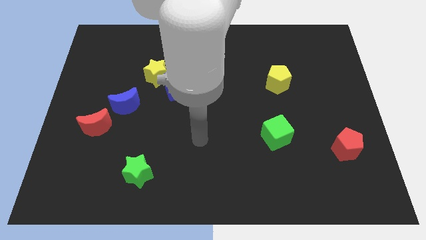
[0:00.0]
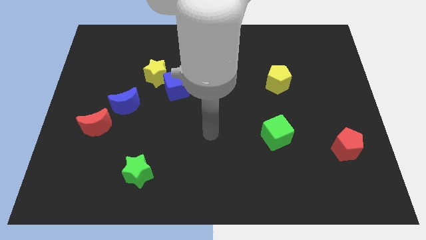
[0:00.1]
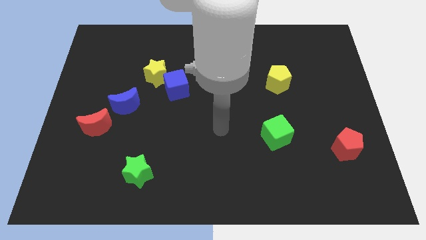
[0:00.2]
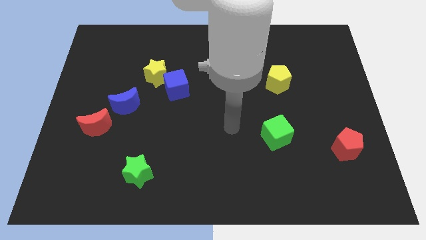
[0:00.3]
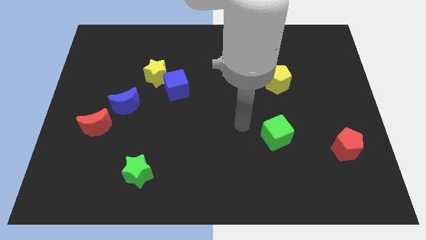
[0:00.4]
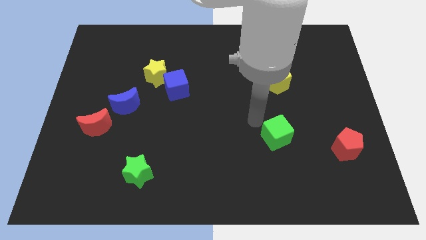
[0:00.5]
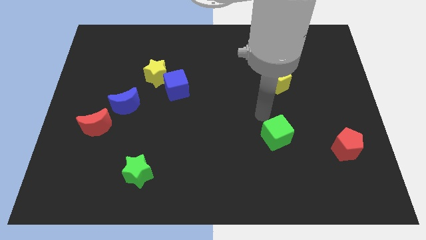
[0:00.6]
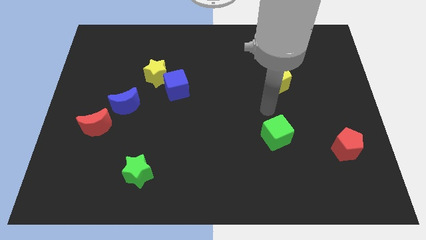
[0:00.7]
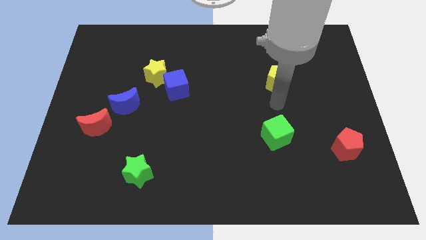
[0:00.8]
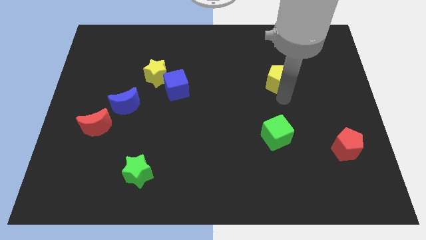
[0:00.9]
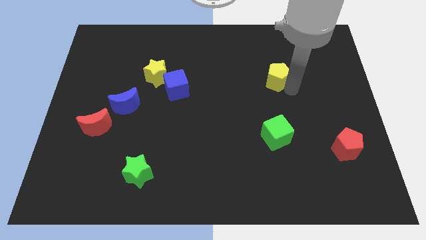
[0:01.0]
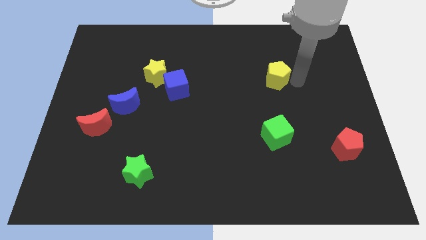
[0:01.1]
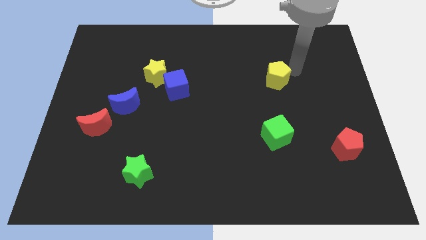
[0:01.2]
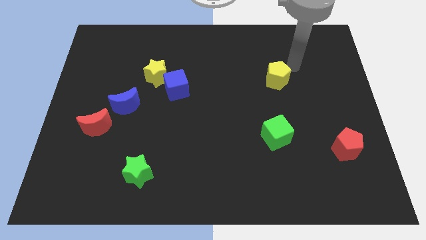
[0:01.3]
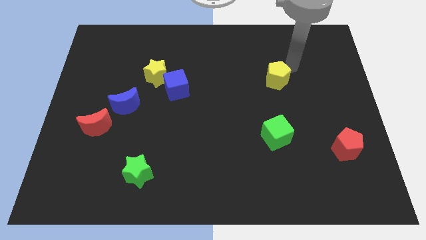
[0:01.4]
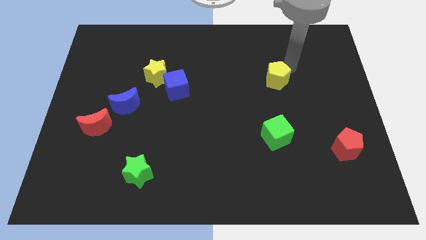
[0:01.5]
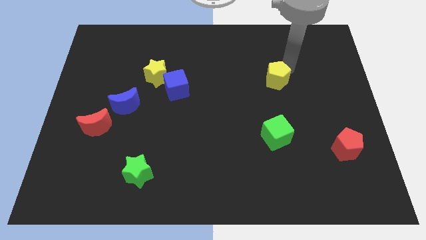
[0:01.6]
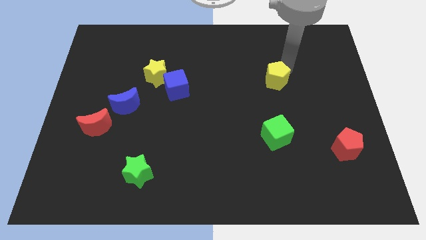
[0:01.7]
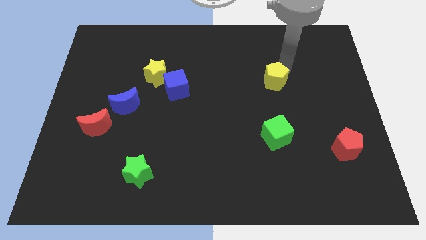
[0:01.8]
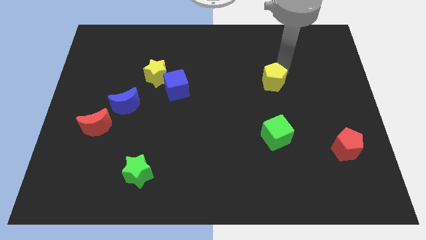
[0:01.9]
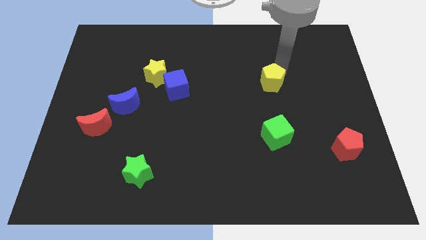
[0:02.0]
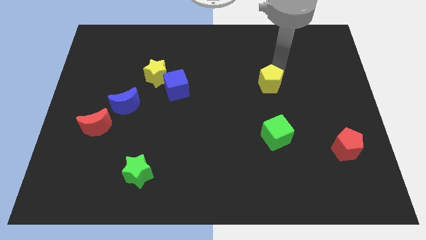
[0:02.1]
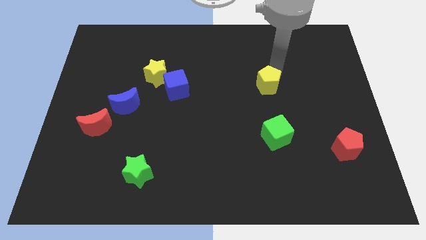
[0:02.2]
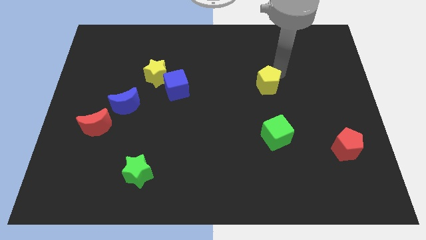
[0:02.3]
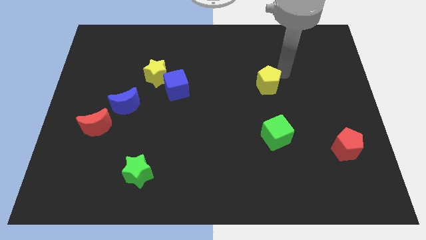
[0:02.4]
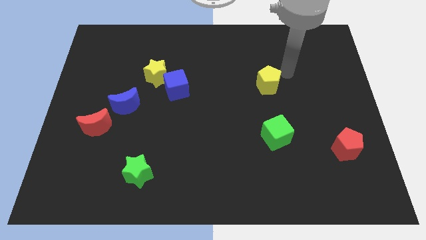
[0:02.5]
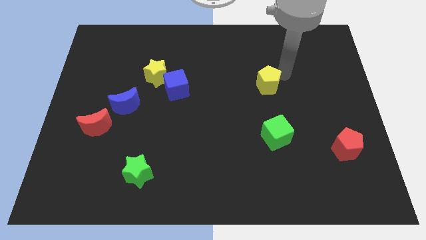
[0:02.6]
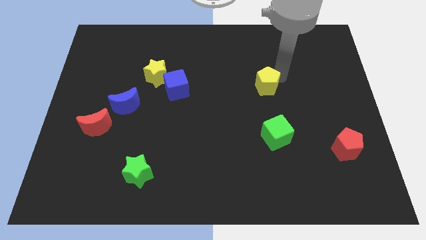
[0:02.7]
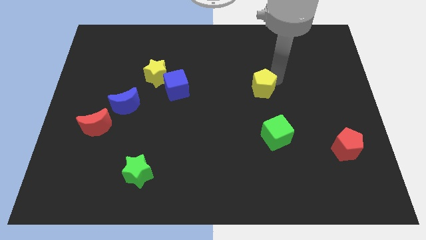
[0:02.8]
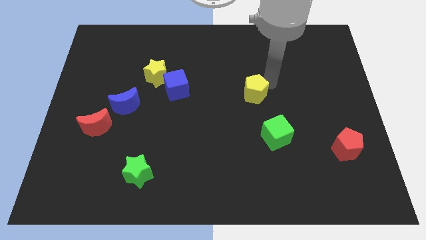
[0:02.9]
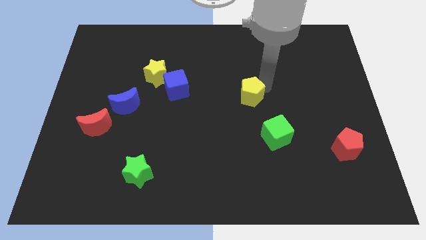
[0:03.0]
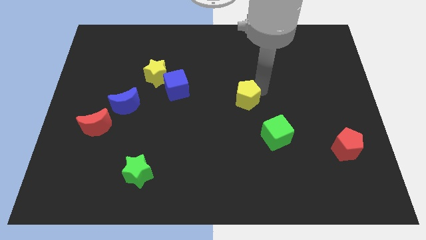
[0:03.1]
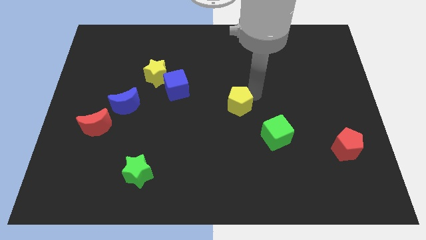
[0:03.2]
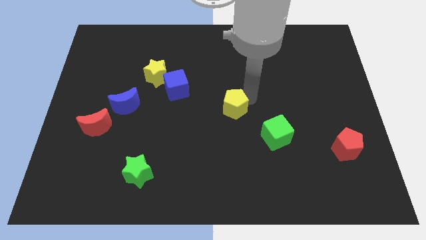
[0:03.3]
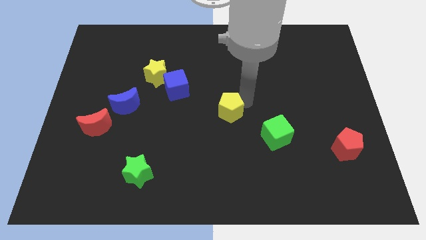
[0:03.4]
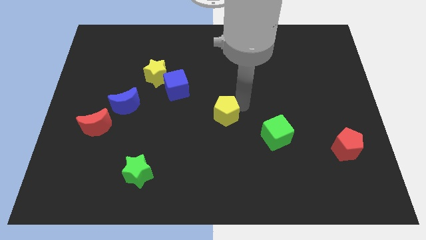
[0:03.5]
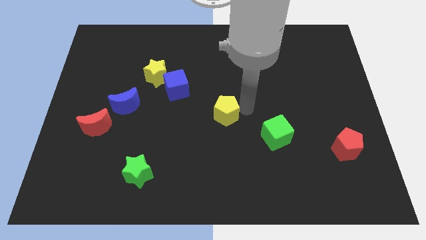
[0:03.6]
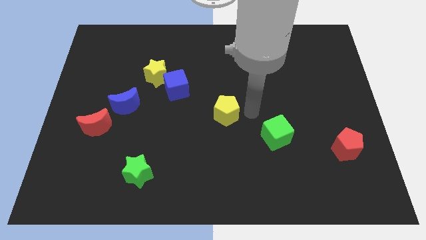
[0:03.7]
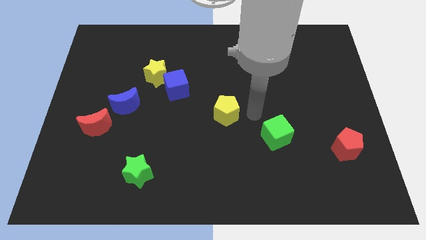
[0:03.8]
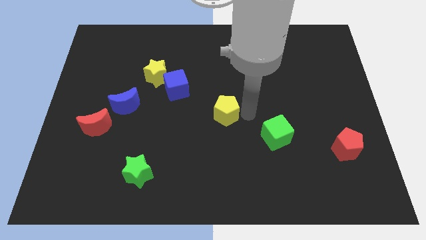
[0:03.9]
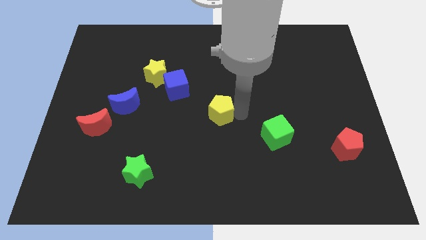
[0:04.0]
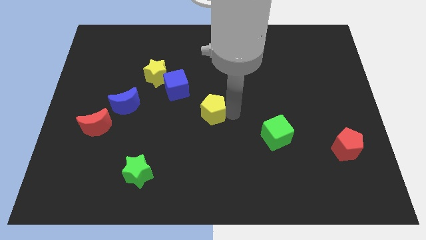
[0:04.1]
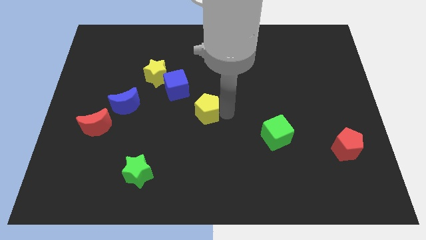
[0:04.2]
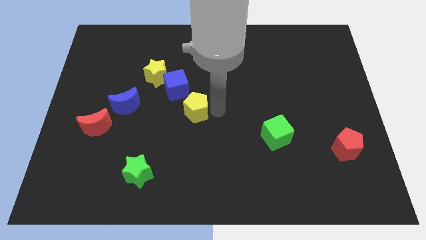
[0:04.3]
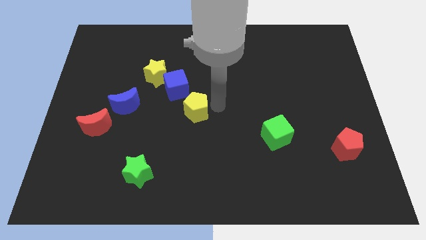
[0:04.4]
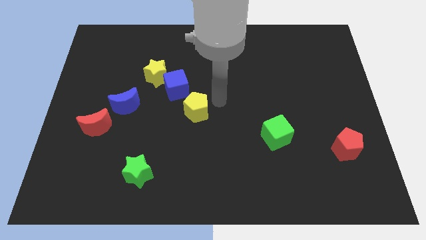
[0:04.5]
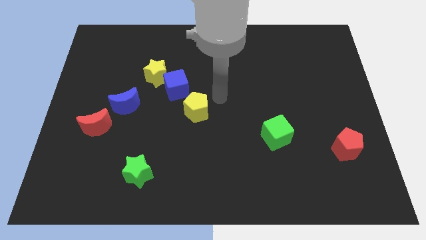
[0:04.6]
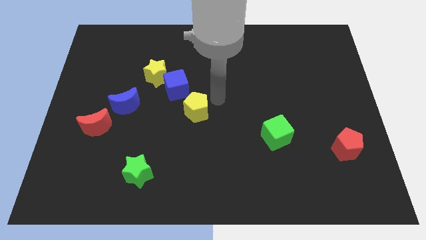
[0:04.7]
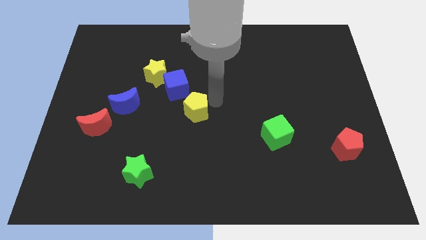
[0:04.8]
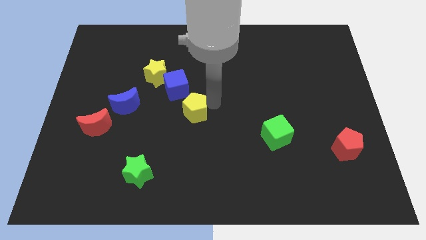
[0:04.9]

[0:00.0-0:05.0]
put the yellow pentagon below the blue cube

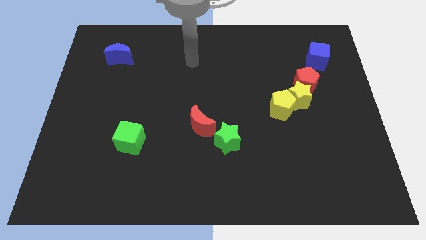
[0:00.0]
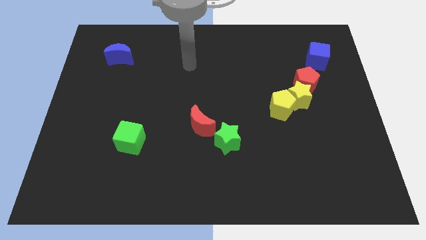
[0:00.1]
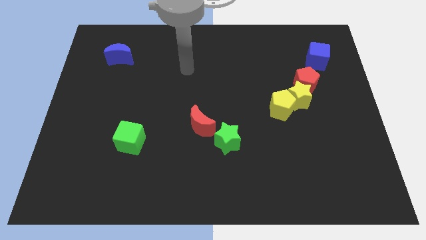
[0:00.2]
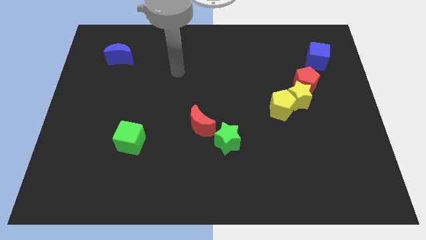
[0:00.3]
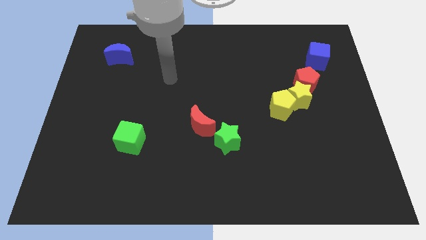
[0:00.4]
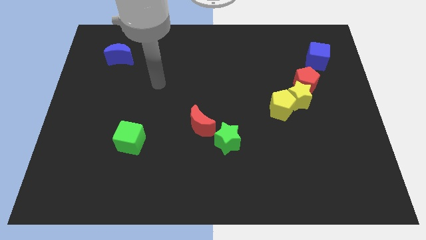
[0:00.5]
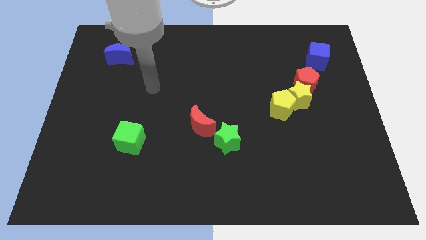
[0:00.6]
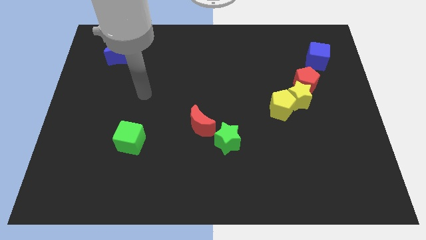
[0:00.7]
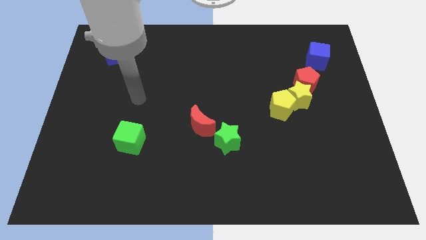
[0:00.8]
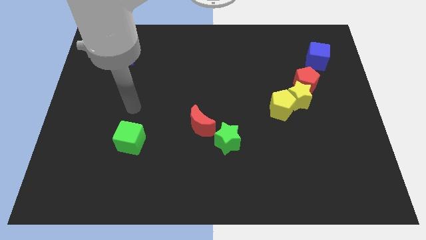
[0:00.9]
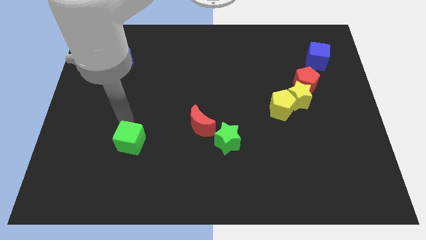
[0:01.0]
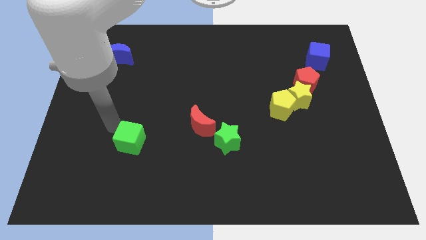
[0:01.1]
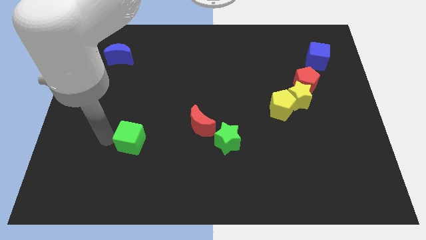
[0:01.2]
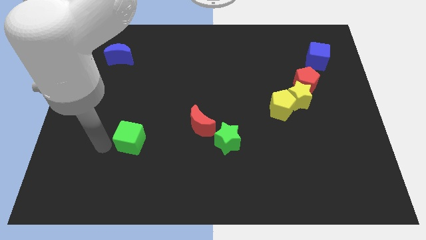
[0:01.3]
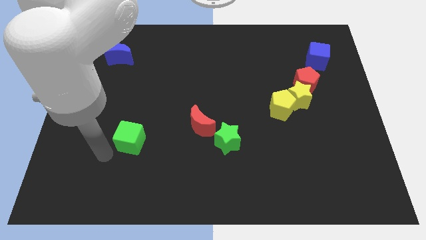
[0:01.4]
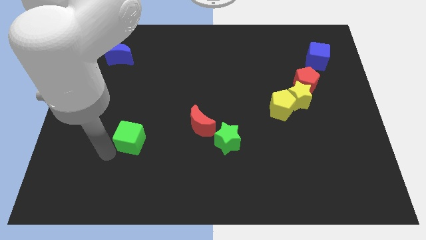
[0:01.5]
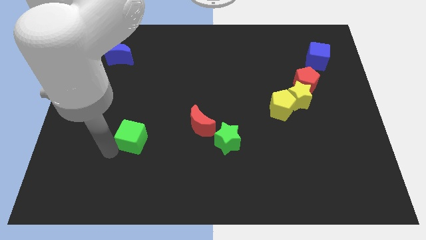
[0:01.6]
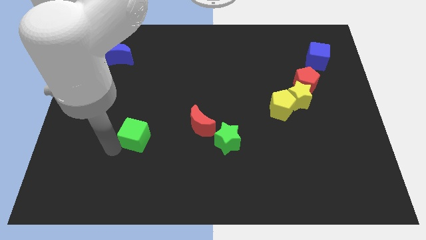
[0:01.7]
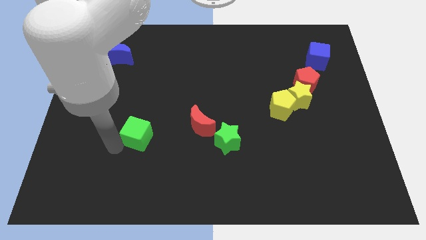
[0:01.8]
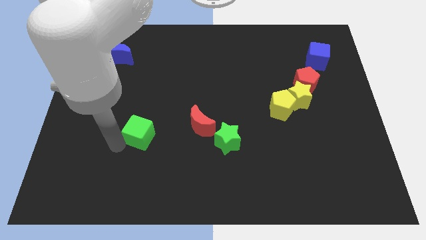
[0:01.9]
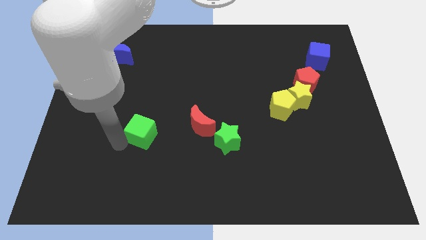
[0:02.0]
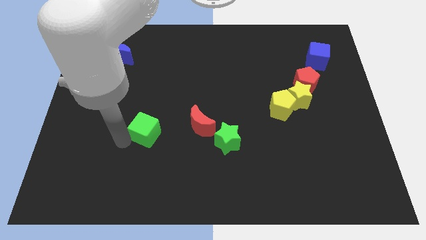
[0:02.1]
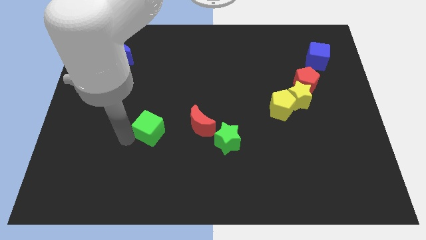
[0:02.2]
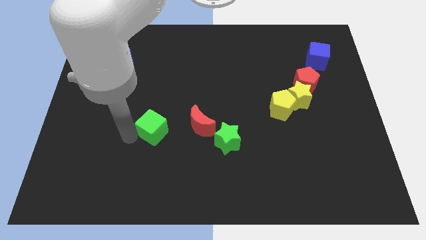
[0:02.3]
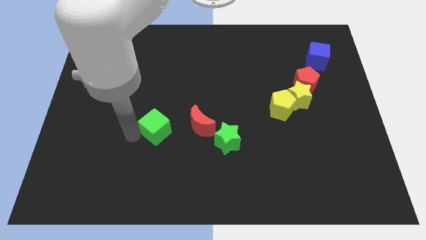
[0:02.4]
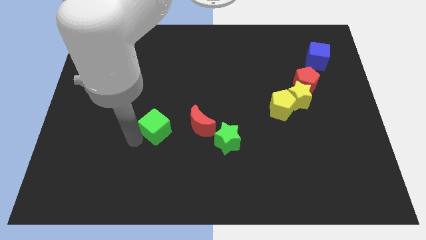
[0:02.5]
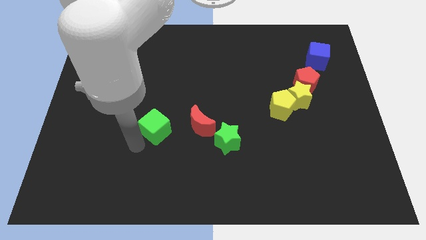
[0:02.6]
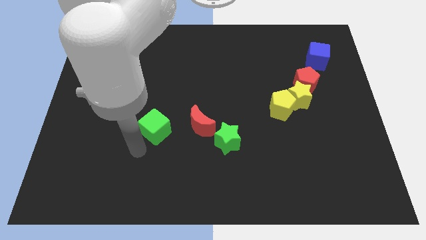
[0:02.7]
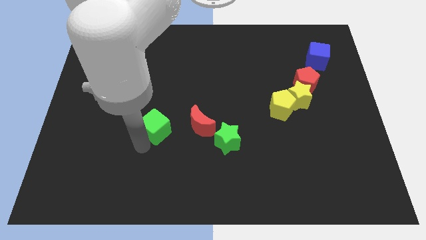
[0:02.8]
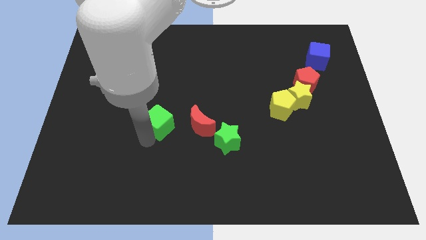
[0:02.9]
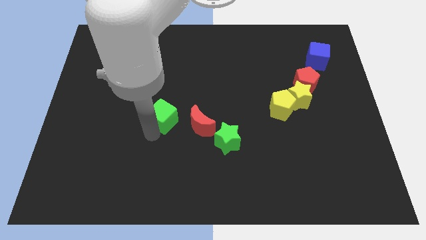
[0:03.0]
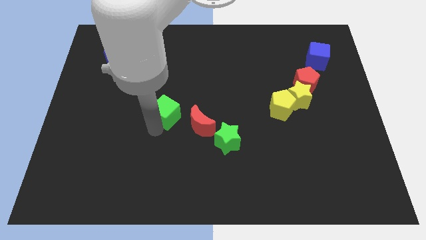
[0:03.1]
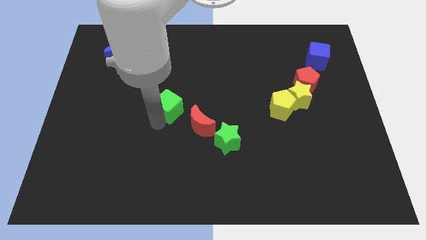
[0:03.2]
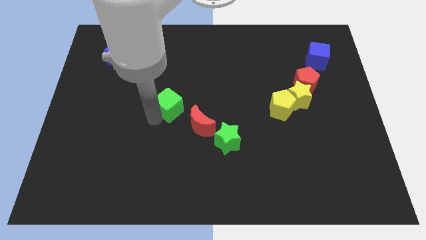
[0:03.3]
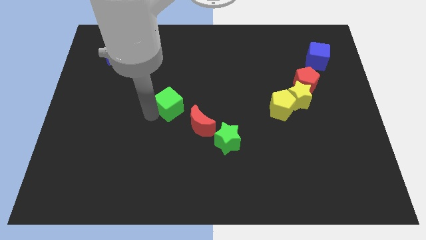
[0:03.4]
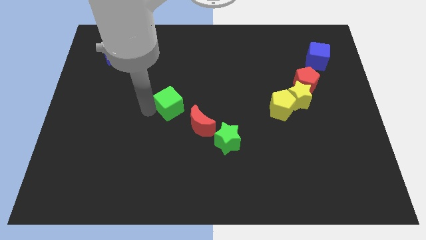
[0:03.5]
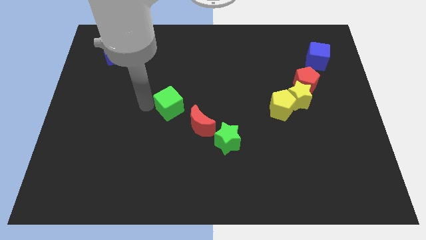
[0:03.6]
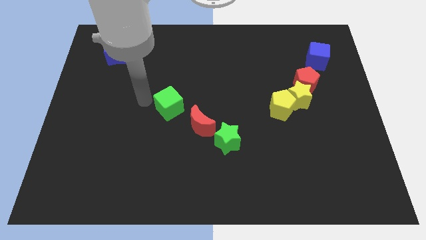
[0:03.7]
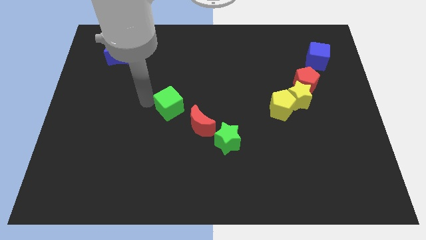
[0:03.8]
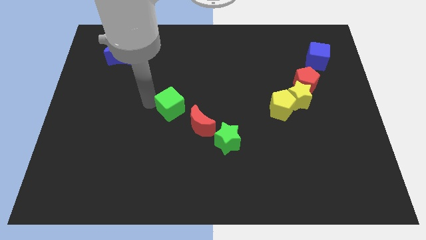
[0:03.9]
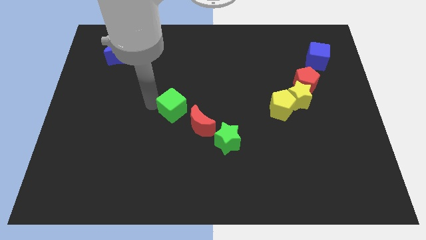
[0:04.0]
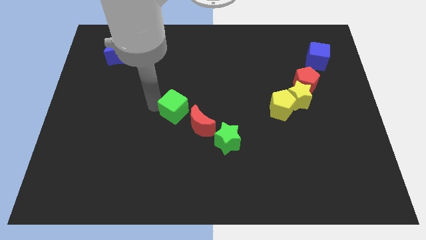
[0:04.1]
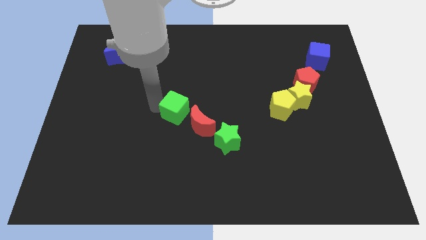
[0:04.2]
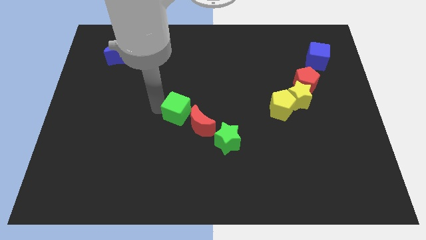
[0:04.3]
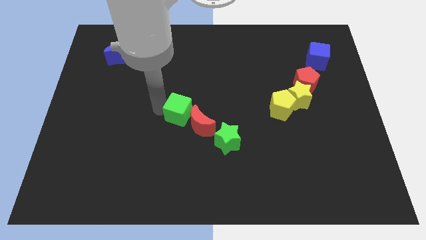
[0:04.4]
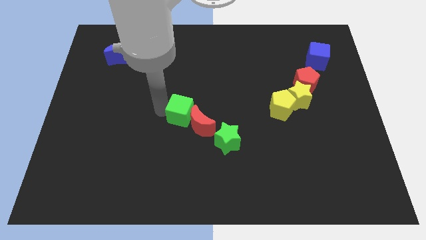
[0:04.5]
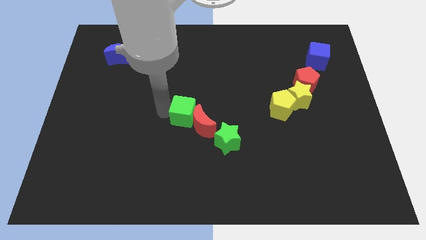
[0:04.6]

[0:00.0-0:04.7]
move the green cube diagonally up and to the left of the green star
